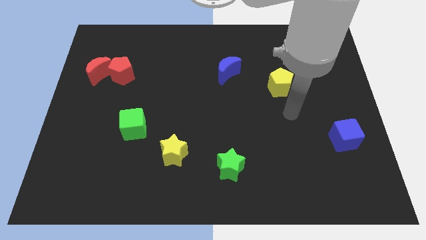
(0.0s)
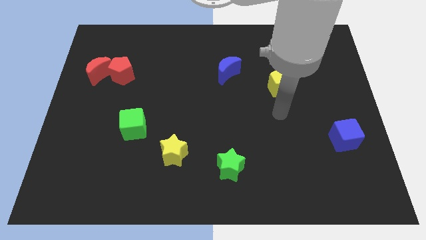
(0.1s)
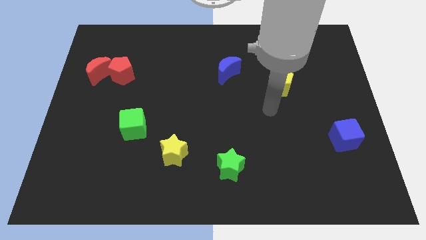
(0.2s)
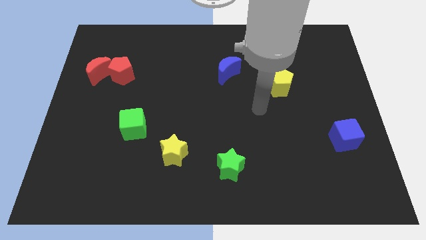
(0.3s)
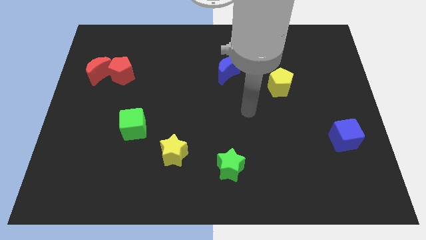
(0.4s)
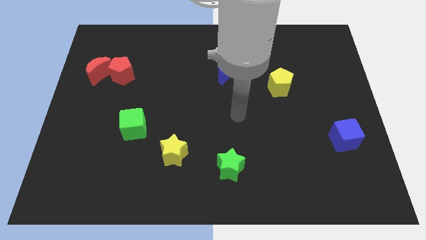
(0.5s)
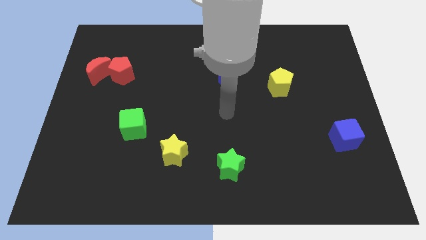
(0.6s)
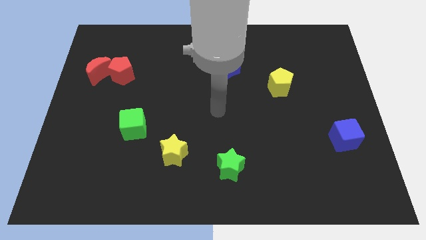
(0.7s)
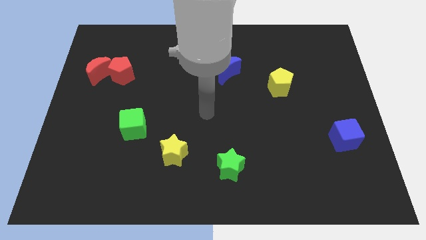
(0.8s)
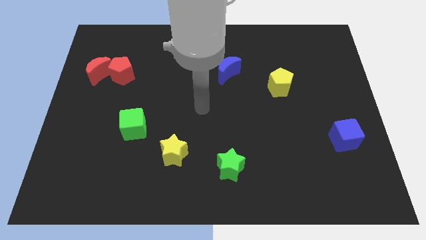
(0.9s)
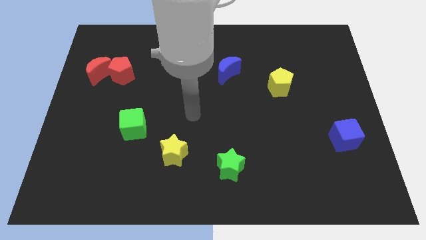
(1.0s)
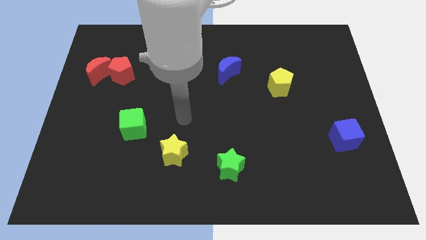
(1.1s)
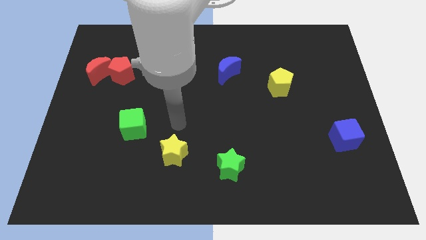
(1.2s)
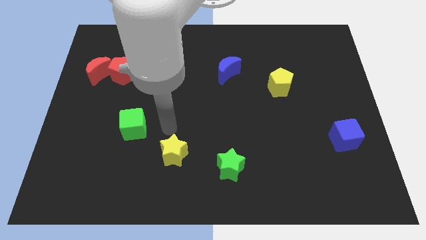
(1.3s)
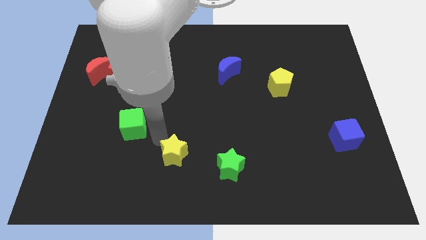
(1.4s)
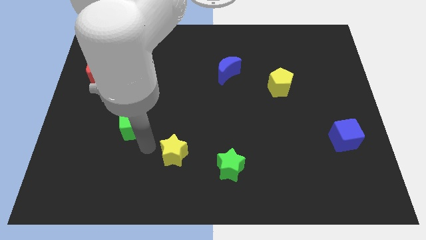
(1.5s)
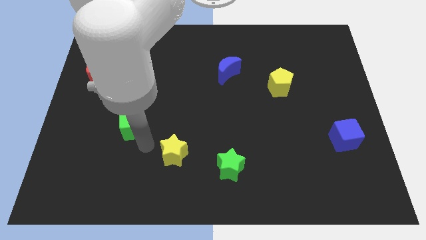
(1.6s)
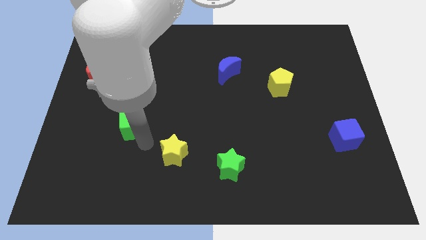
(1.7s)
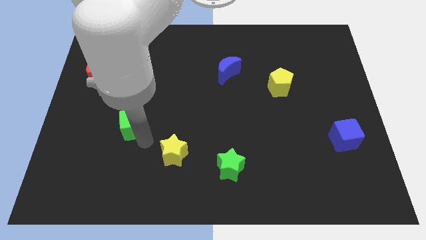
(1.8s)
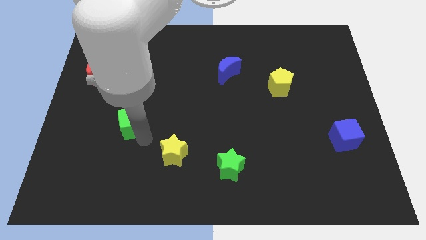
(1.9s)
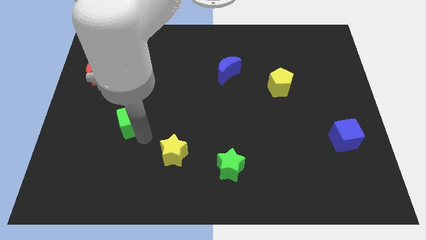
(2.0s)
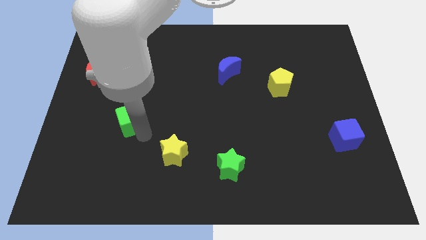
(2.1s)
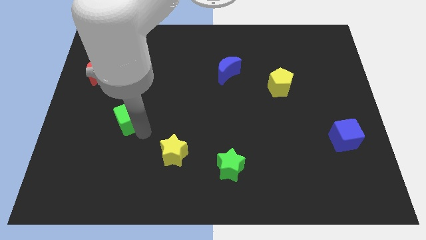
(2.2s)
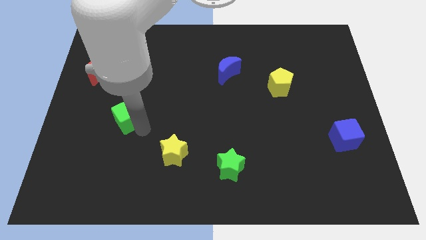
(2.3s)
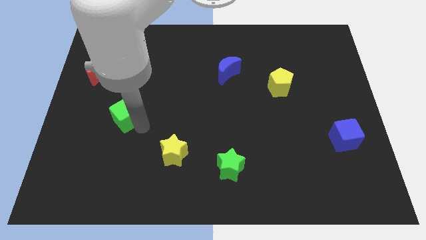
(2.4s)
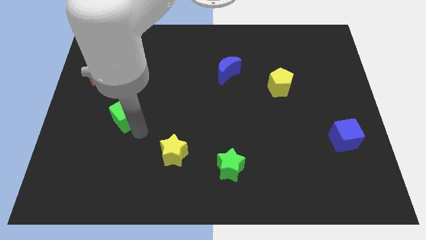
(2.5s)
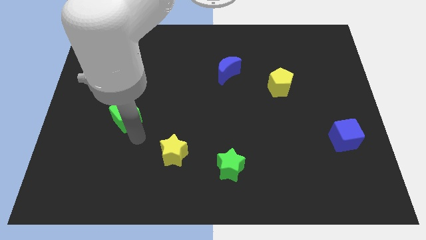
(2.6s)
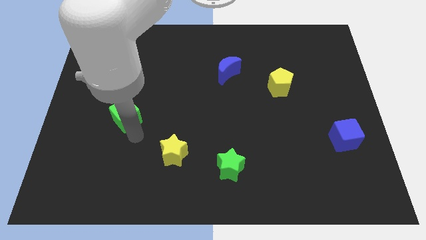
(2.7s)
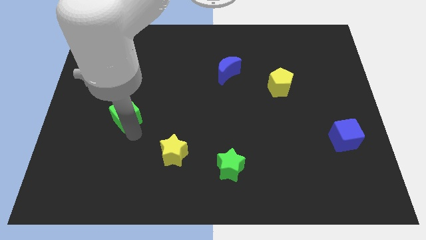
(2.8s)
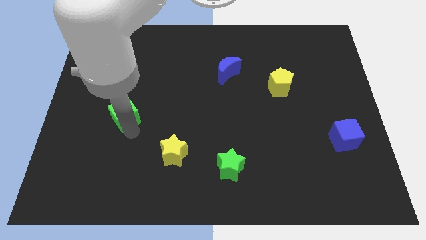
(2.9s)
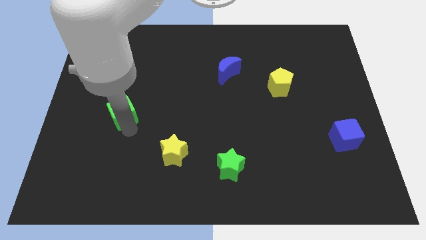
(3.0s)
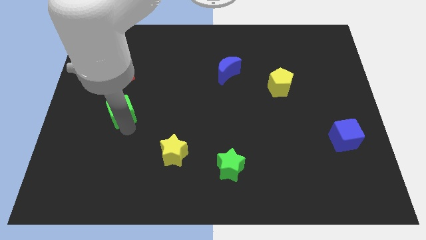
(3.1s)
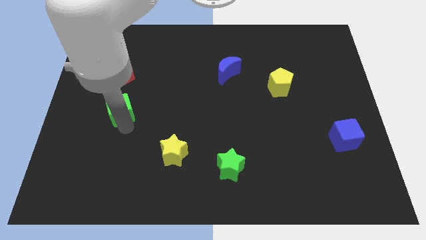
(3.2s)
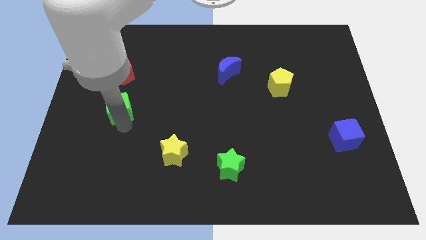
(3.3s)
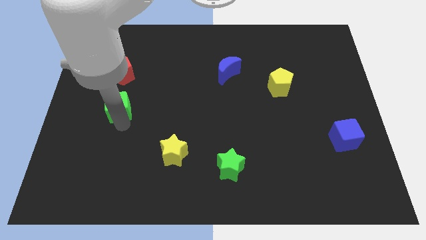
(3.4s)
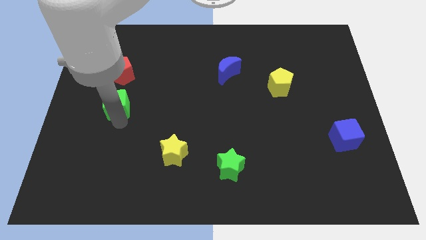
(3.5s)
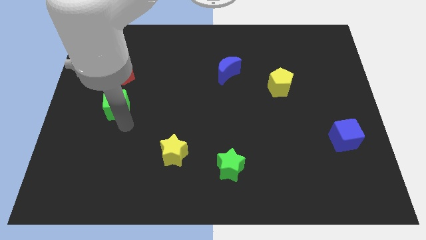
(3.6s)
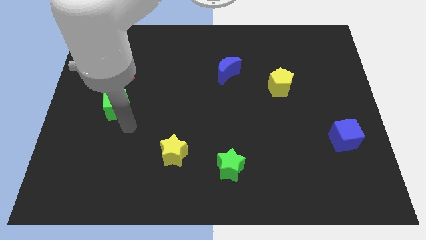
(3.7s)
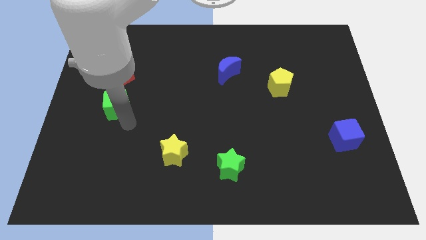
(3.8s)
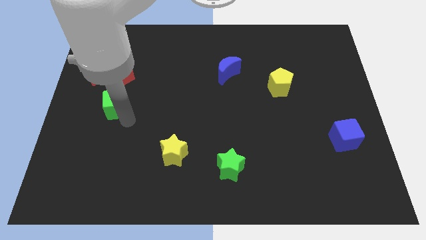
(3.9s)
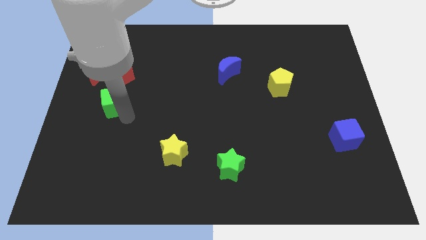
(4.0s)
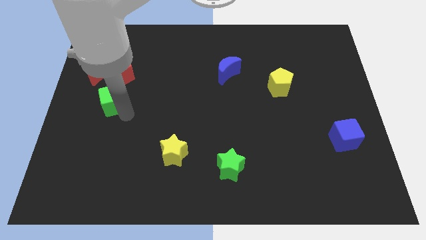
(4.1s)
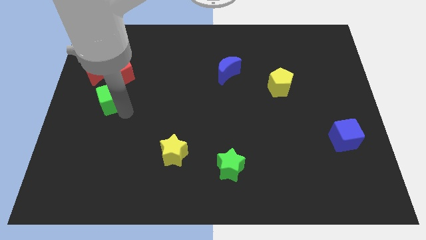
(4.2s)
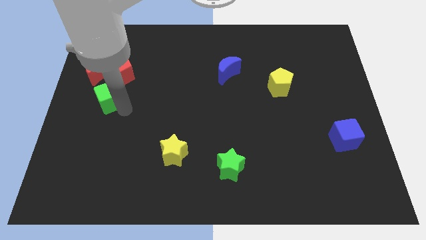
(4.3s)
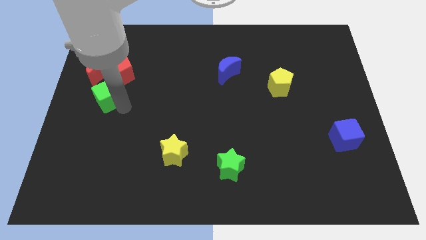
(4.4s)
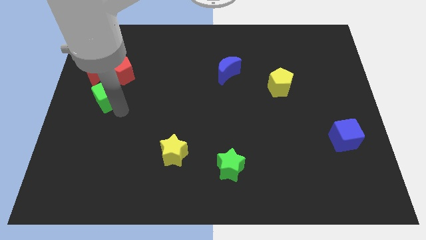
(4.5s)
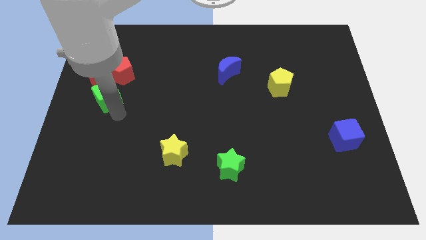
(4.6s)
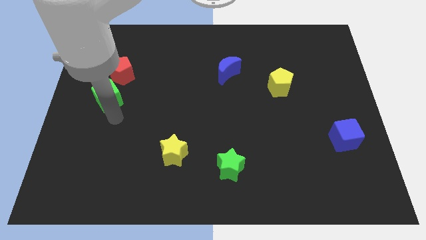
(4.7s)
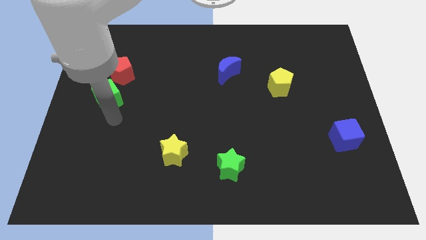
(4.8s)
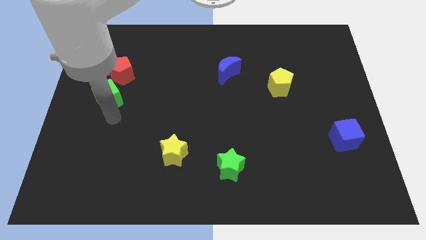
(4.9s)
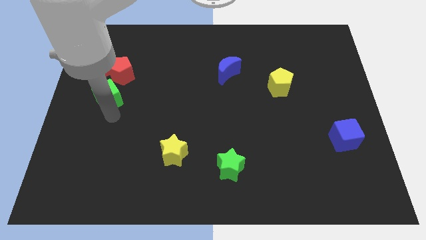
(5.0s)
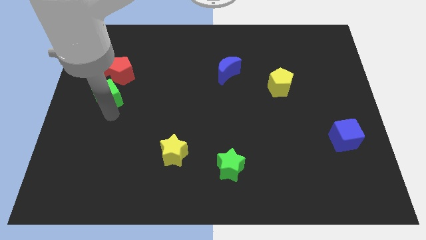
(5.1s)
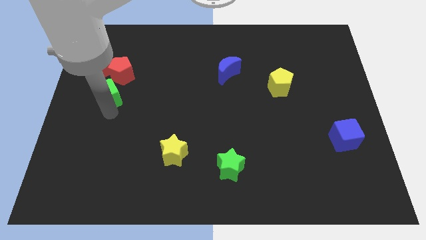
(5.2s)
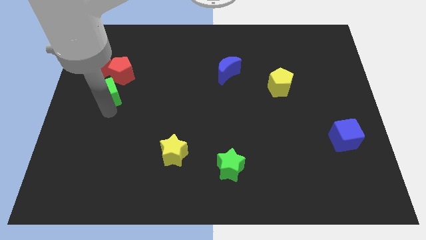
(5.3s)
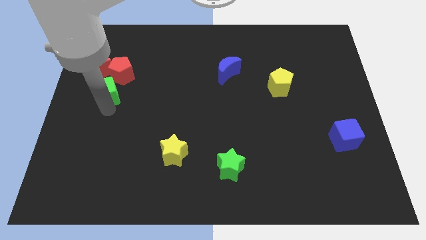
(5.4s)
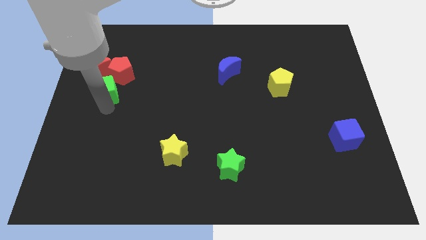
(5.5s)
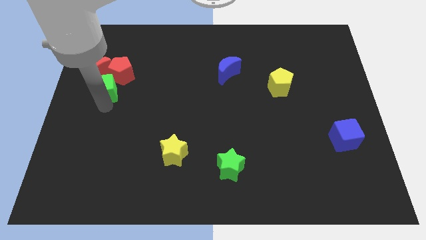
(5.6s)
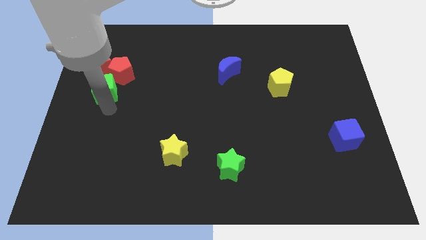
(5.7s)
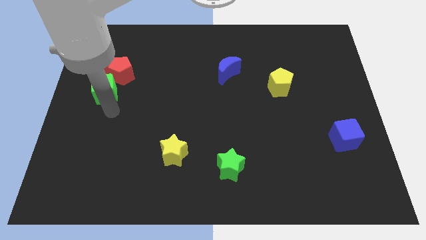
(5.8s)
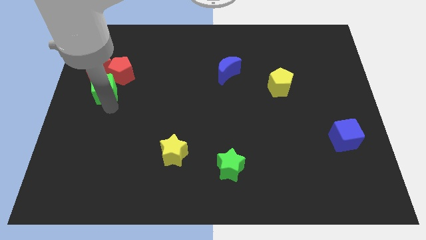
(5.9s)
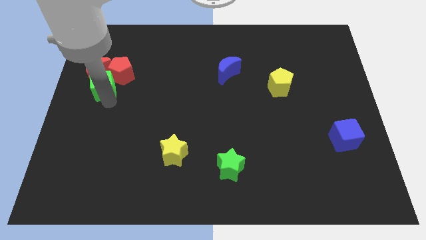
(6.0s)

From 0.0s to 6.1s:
move the green cube towards the red moon

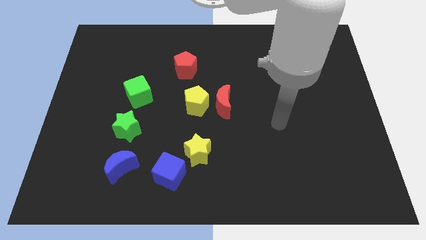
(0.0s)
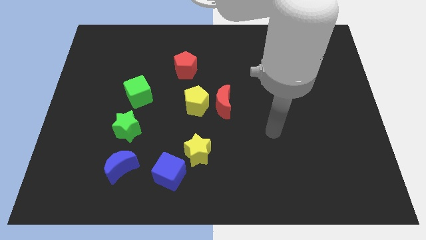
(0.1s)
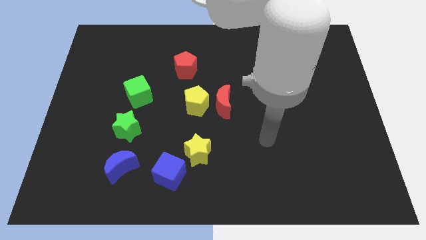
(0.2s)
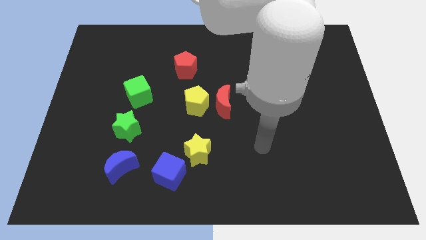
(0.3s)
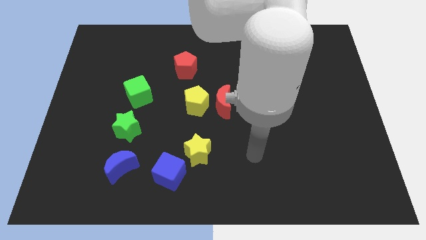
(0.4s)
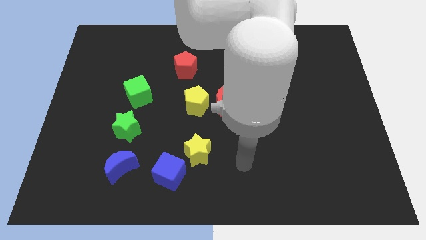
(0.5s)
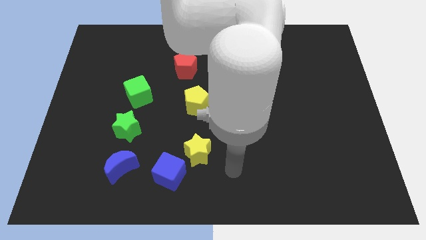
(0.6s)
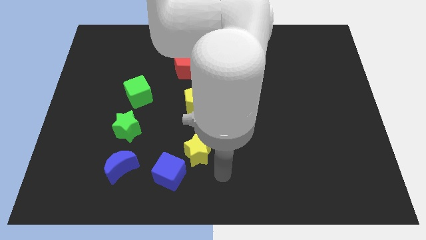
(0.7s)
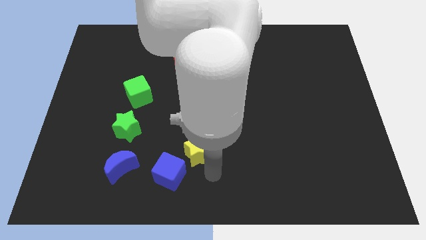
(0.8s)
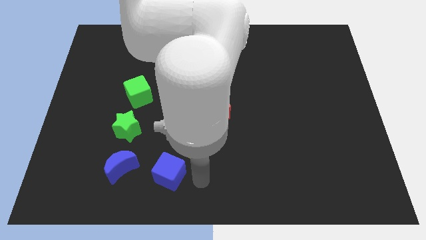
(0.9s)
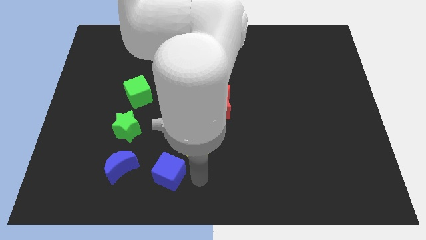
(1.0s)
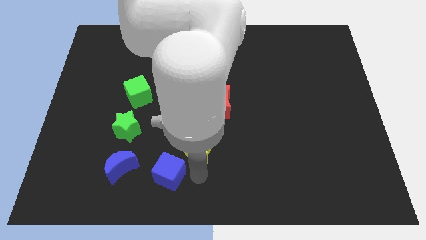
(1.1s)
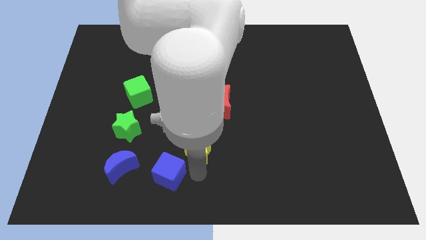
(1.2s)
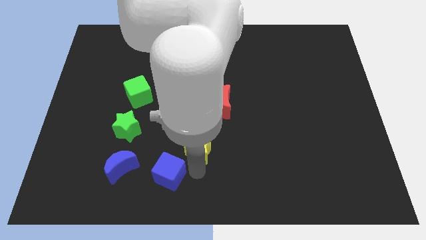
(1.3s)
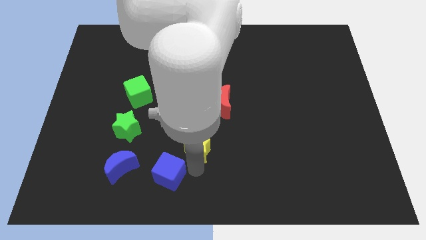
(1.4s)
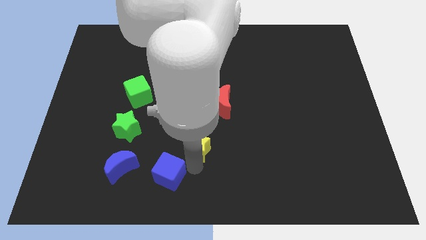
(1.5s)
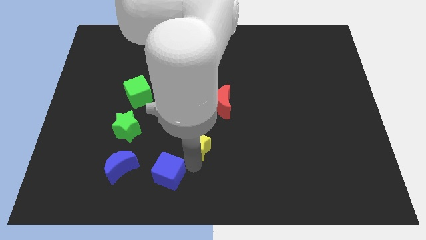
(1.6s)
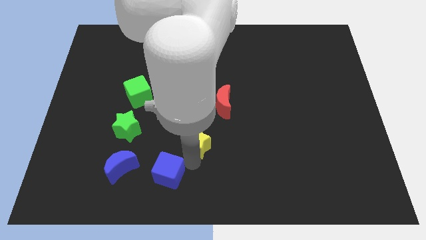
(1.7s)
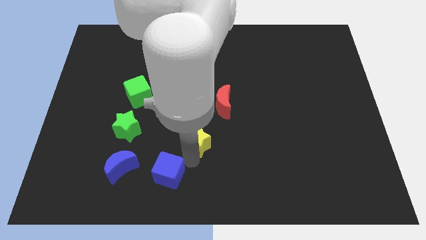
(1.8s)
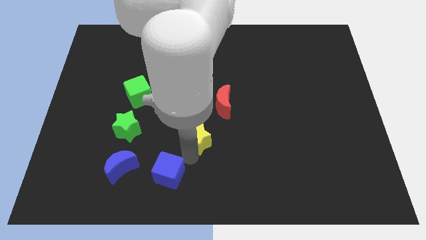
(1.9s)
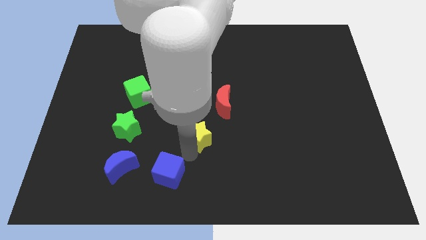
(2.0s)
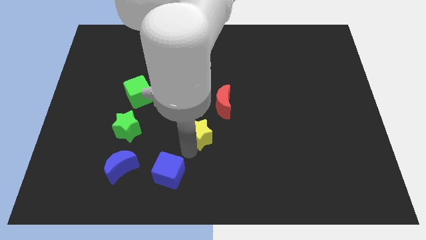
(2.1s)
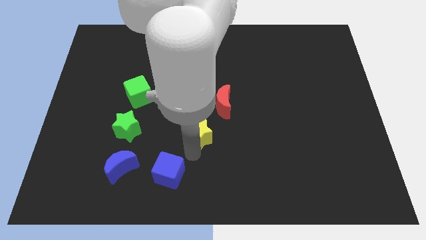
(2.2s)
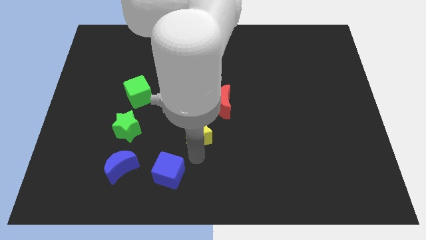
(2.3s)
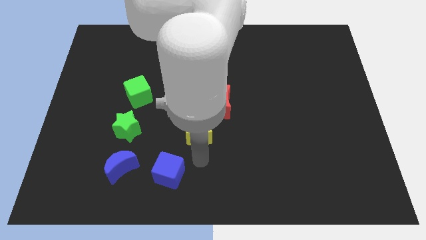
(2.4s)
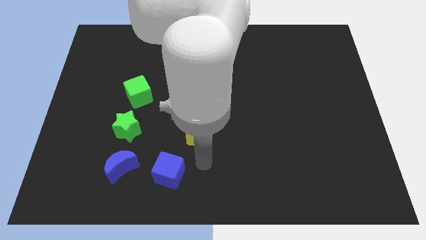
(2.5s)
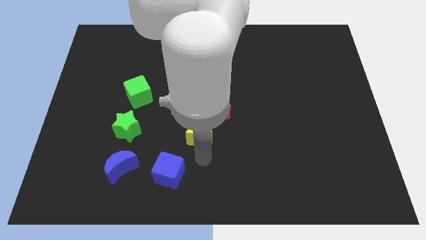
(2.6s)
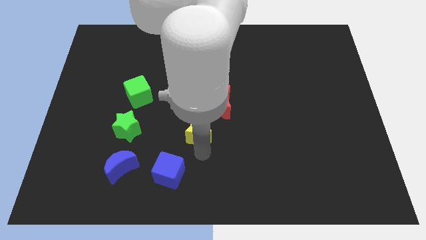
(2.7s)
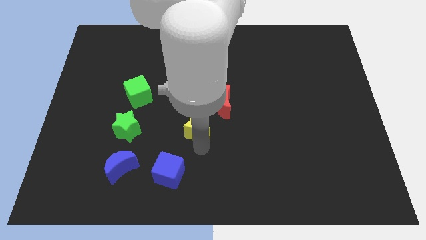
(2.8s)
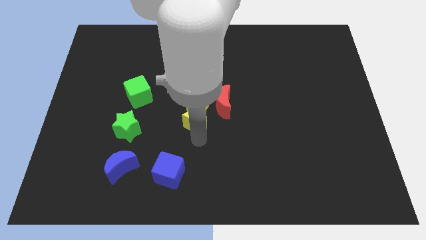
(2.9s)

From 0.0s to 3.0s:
move the yellow star close to the yellow pentagon
